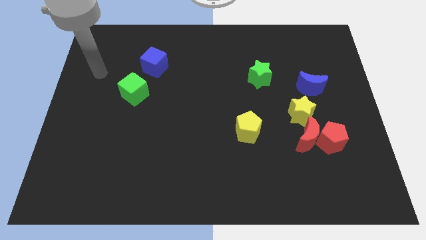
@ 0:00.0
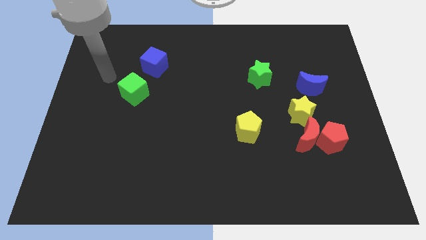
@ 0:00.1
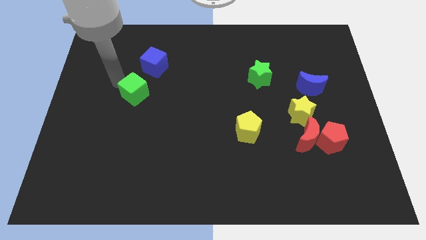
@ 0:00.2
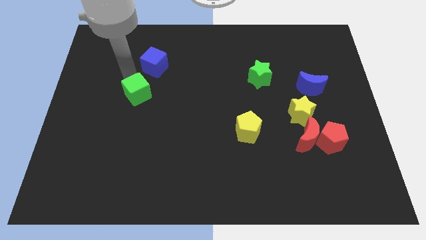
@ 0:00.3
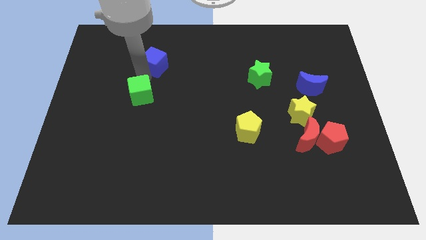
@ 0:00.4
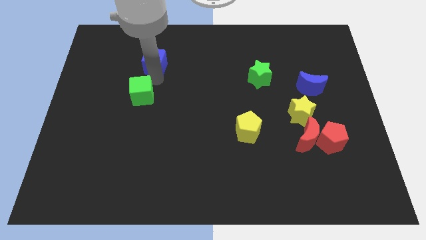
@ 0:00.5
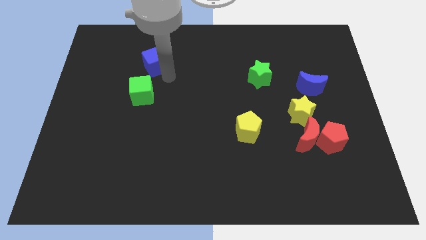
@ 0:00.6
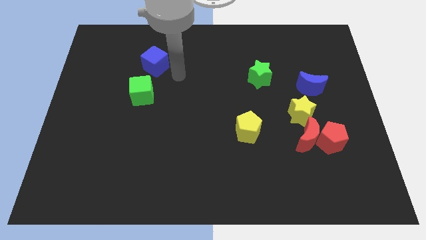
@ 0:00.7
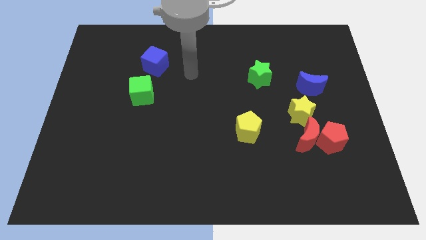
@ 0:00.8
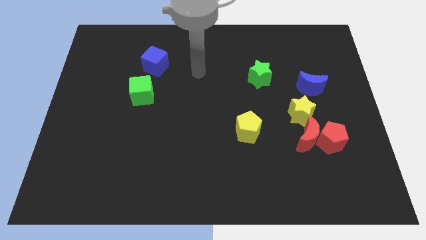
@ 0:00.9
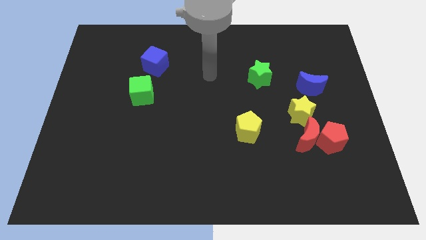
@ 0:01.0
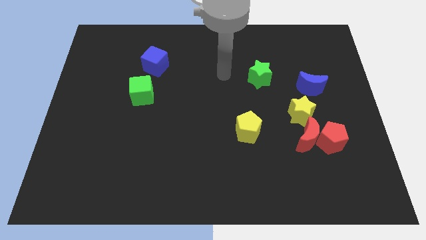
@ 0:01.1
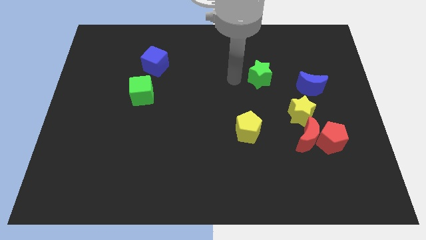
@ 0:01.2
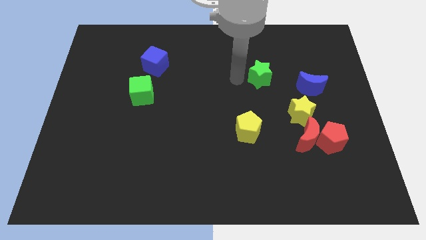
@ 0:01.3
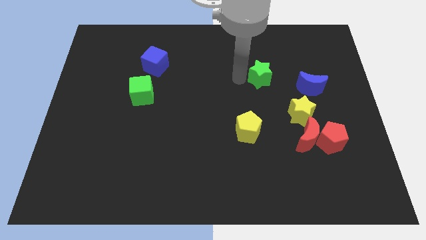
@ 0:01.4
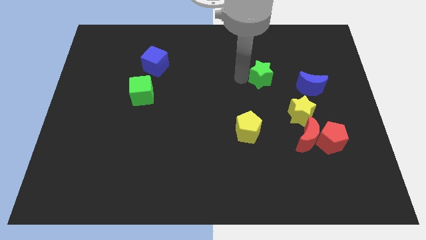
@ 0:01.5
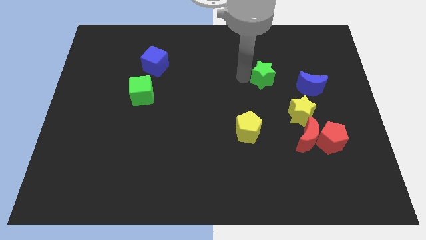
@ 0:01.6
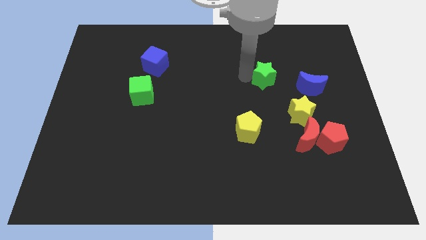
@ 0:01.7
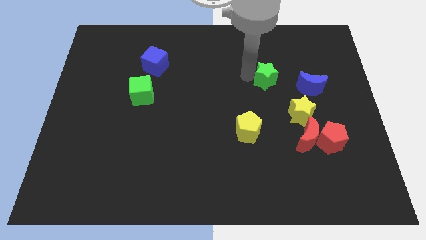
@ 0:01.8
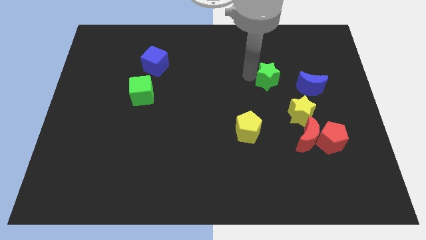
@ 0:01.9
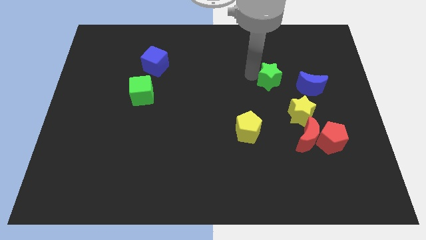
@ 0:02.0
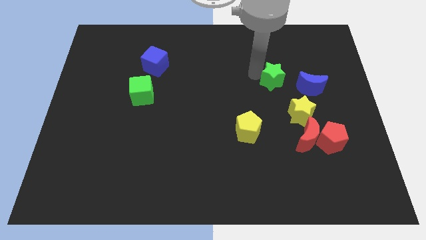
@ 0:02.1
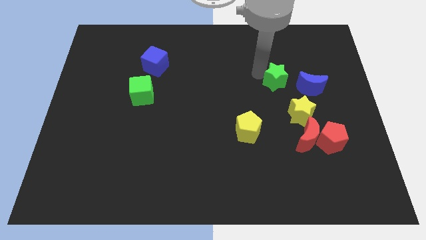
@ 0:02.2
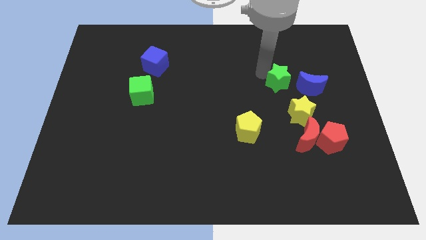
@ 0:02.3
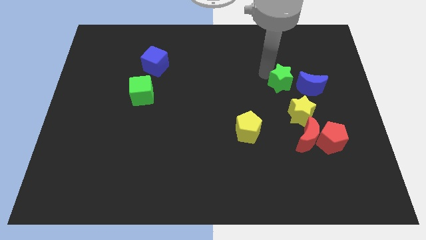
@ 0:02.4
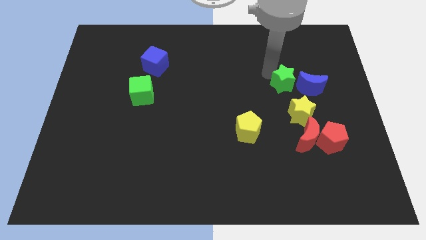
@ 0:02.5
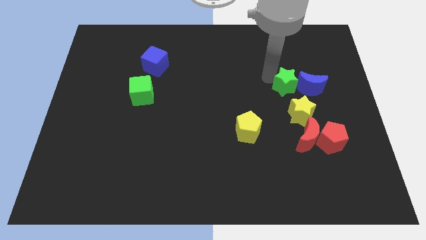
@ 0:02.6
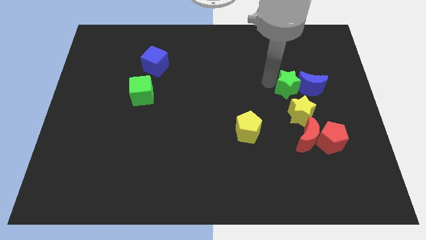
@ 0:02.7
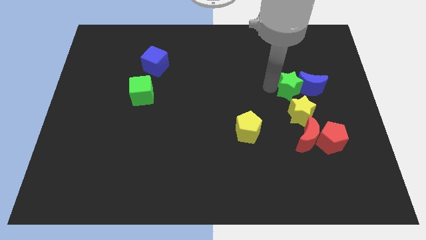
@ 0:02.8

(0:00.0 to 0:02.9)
push the green star a little bit diagonally down and to the right

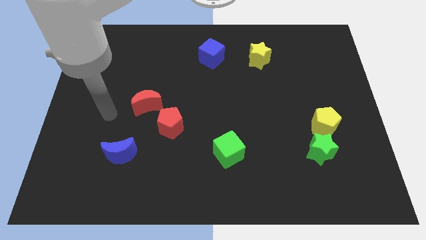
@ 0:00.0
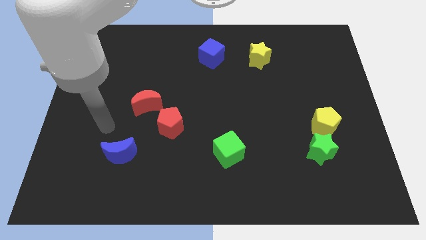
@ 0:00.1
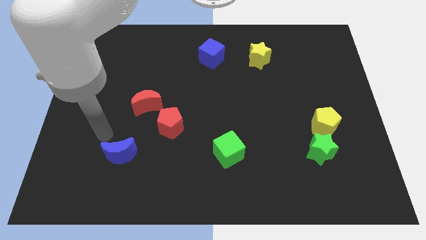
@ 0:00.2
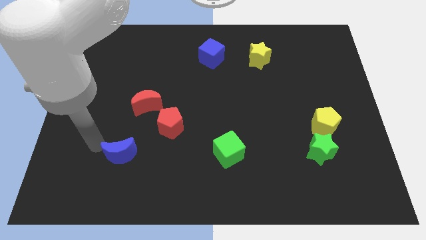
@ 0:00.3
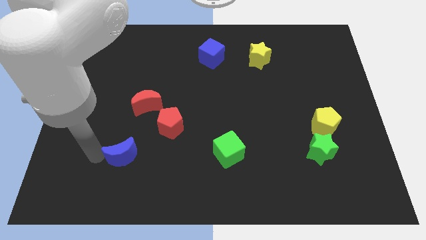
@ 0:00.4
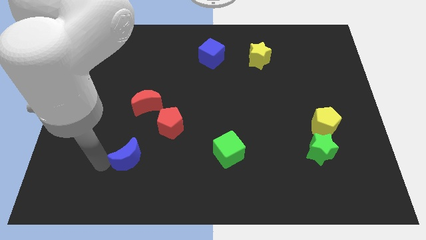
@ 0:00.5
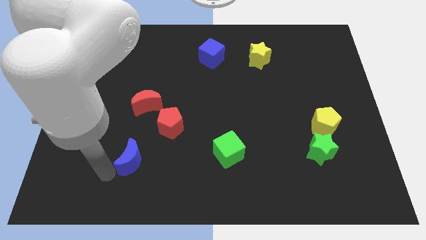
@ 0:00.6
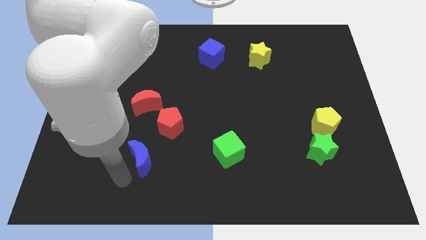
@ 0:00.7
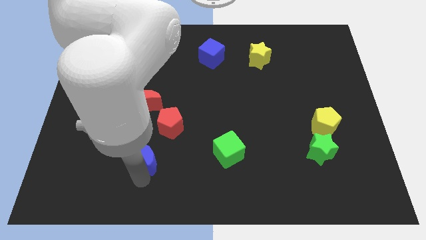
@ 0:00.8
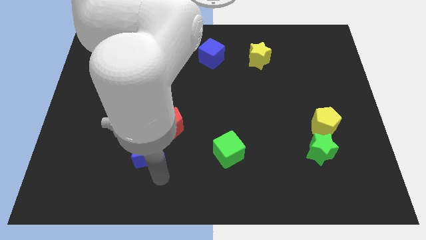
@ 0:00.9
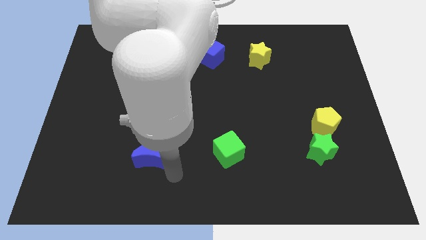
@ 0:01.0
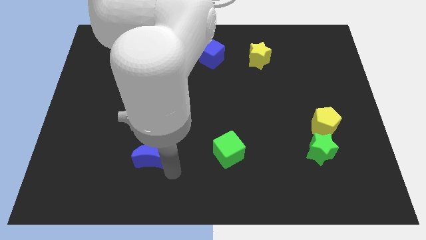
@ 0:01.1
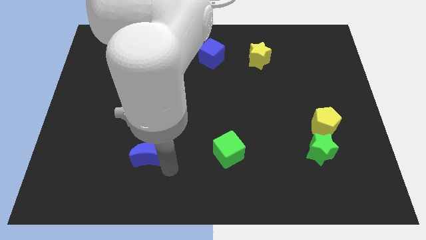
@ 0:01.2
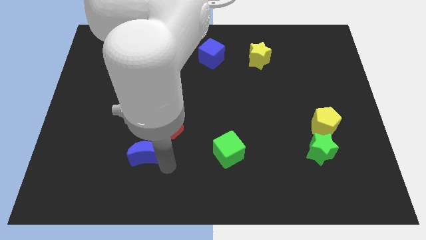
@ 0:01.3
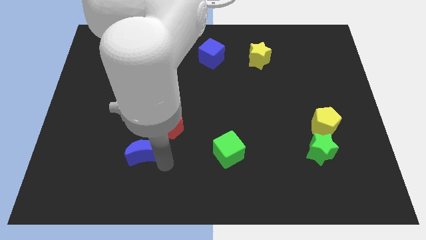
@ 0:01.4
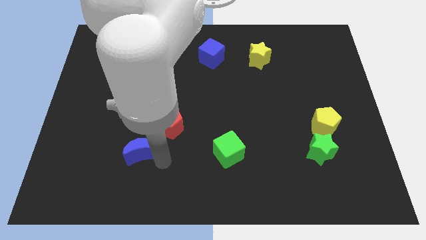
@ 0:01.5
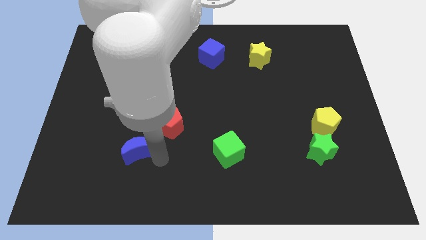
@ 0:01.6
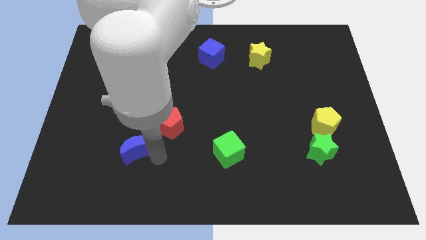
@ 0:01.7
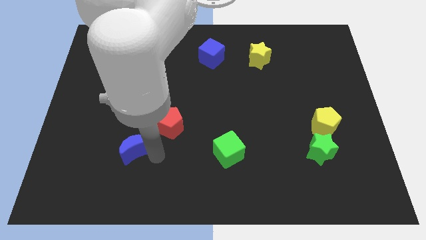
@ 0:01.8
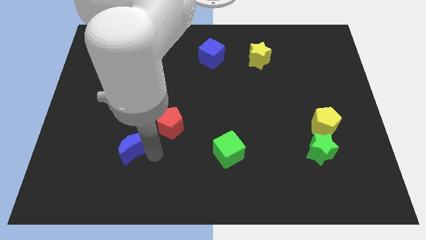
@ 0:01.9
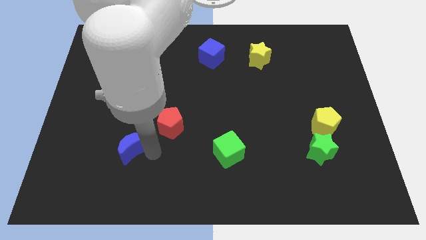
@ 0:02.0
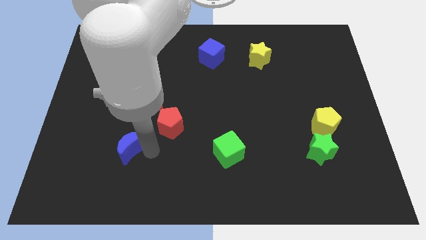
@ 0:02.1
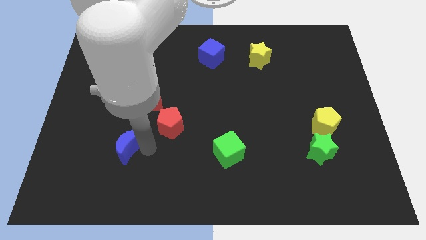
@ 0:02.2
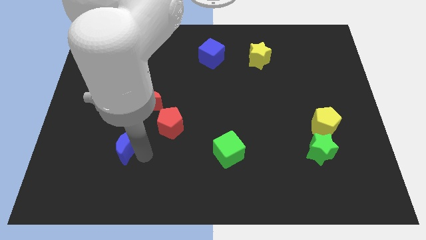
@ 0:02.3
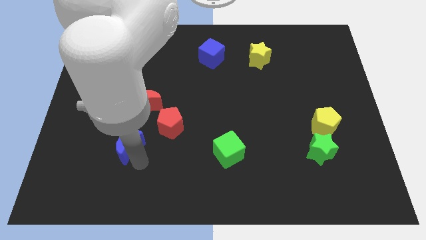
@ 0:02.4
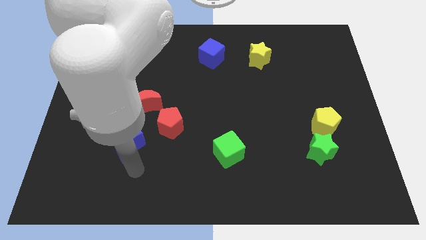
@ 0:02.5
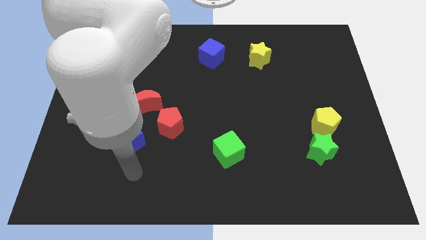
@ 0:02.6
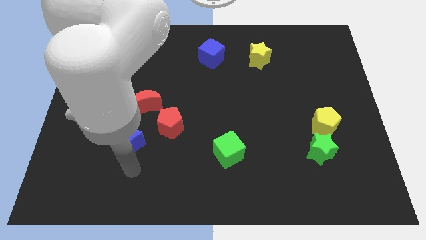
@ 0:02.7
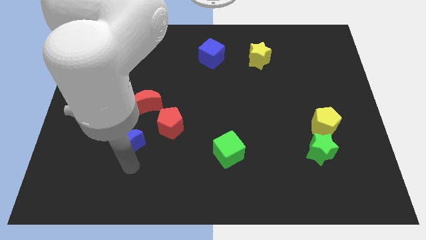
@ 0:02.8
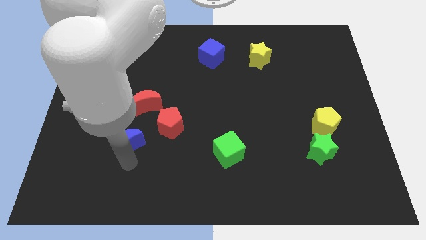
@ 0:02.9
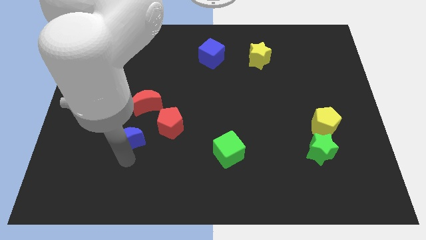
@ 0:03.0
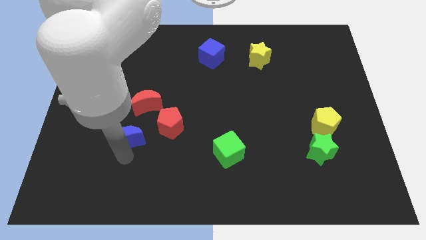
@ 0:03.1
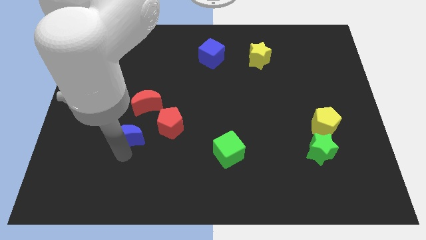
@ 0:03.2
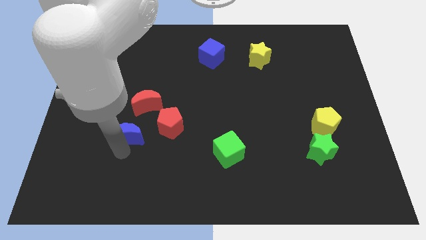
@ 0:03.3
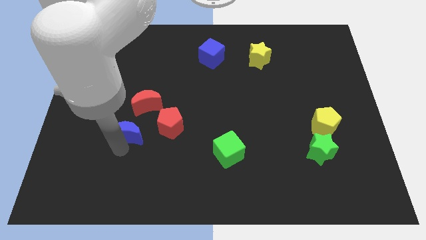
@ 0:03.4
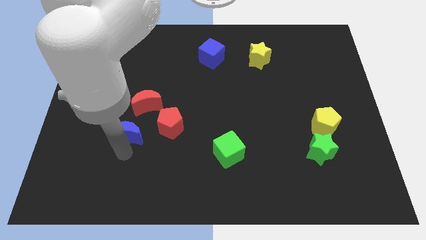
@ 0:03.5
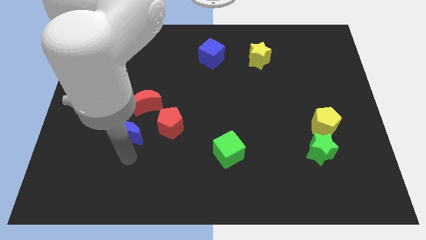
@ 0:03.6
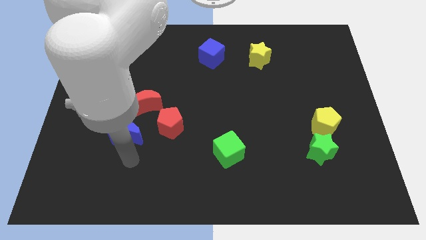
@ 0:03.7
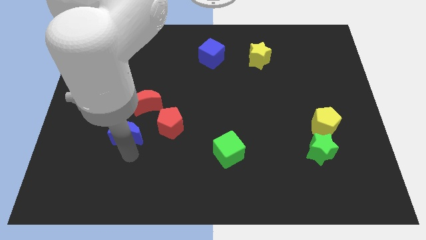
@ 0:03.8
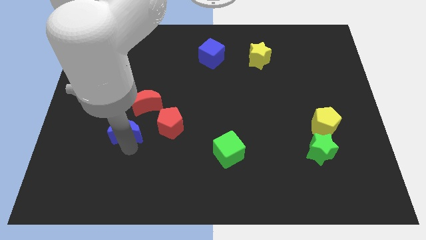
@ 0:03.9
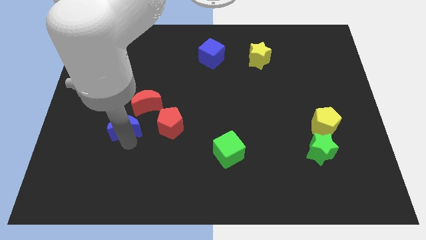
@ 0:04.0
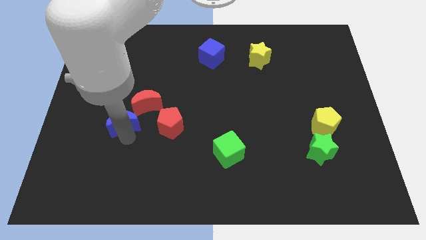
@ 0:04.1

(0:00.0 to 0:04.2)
slightly slide the blue moon up

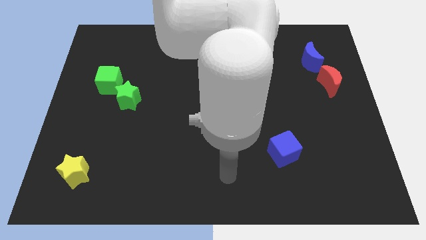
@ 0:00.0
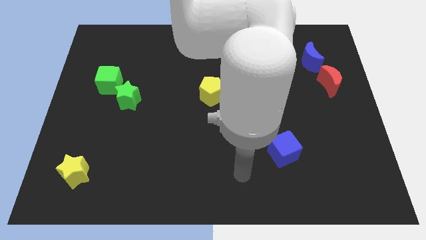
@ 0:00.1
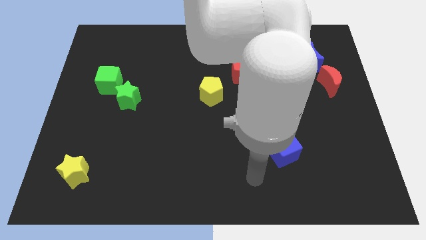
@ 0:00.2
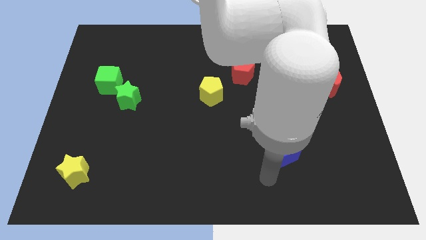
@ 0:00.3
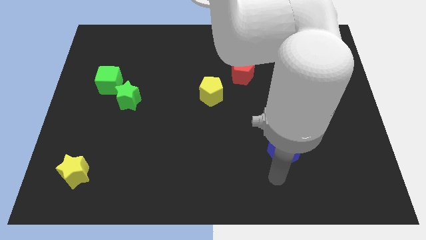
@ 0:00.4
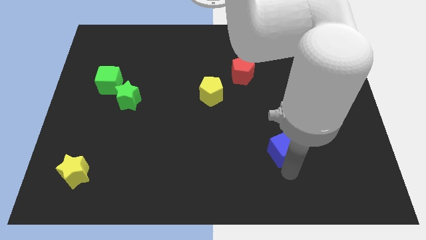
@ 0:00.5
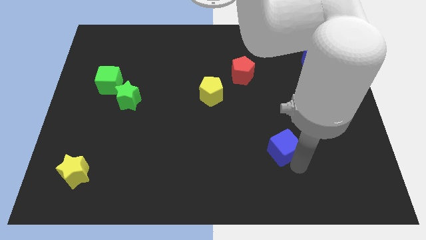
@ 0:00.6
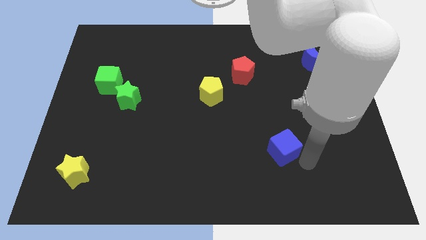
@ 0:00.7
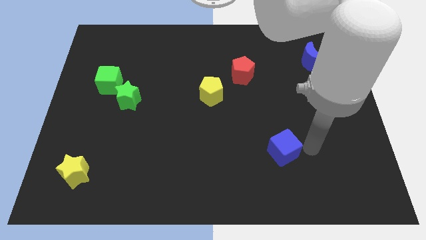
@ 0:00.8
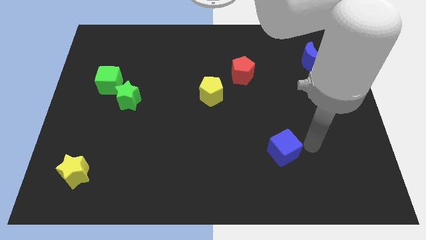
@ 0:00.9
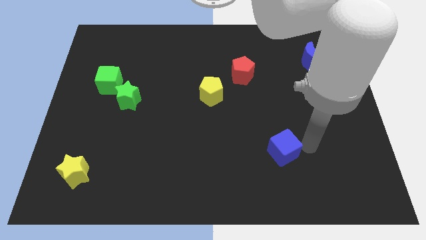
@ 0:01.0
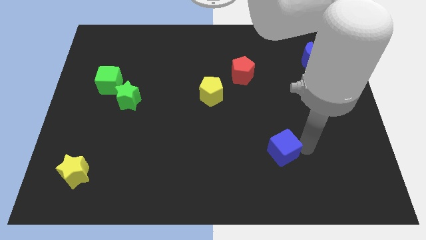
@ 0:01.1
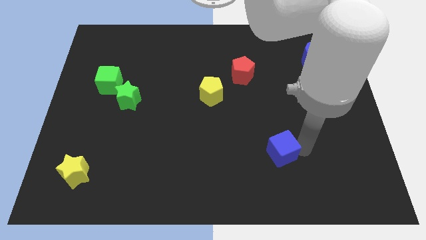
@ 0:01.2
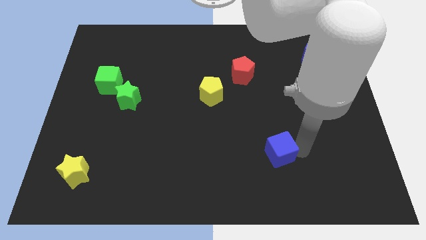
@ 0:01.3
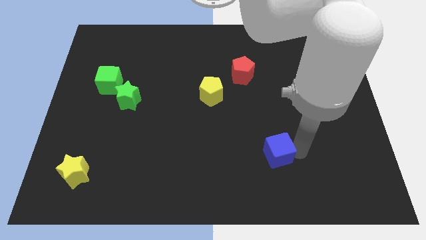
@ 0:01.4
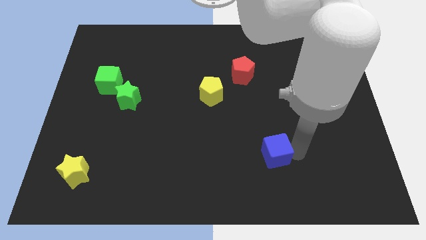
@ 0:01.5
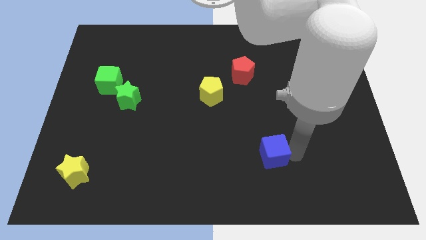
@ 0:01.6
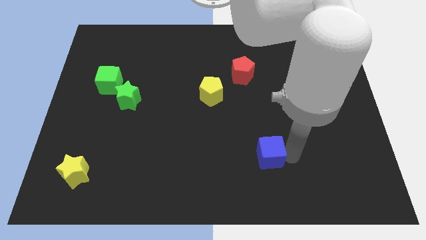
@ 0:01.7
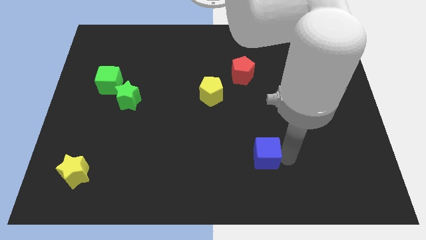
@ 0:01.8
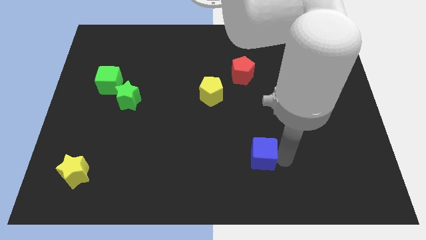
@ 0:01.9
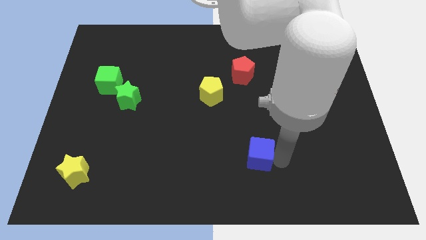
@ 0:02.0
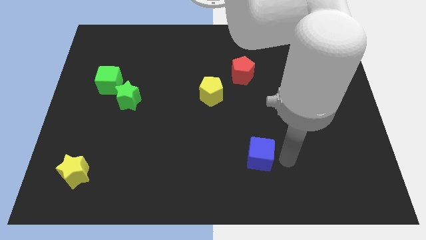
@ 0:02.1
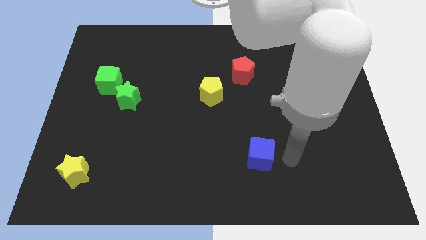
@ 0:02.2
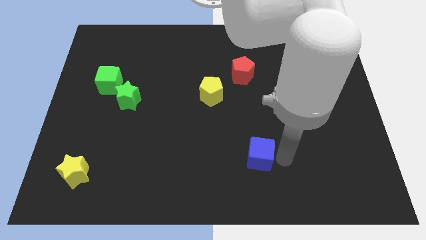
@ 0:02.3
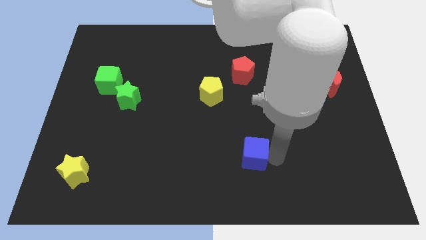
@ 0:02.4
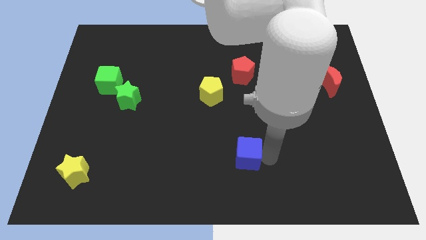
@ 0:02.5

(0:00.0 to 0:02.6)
slide the blue cube to the left slightly
